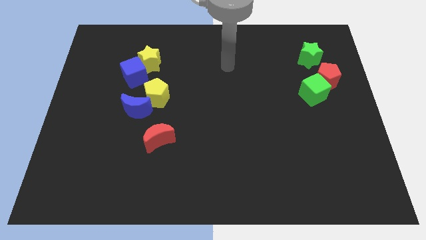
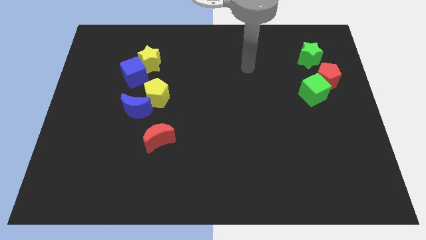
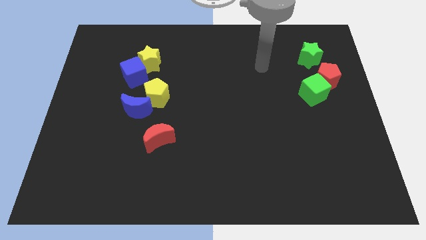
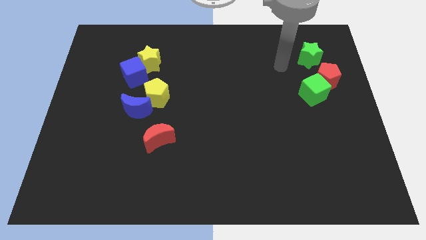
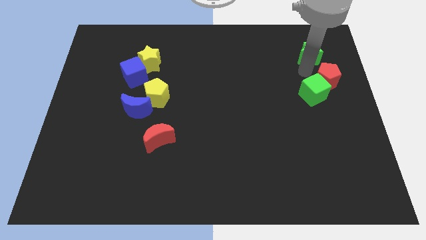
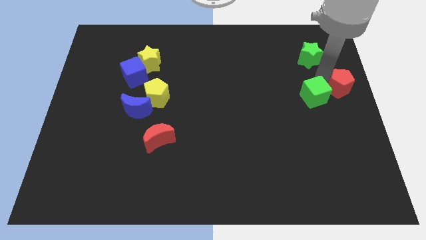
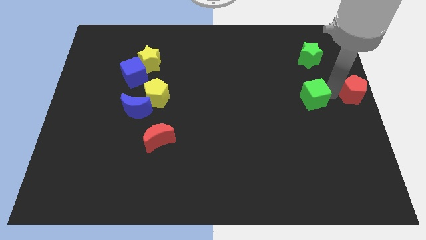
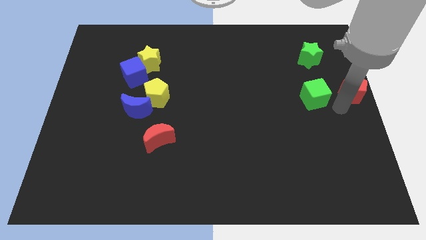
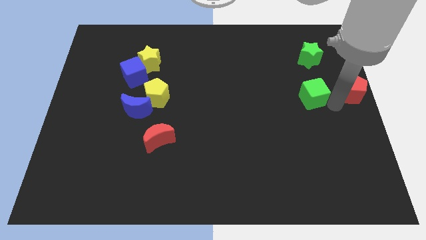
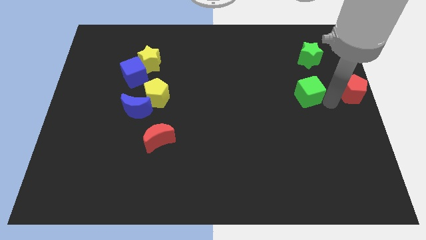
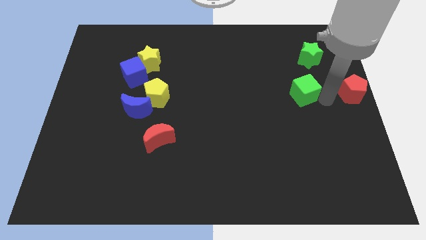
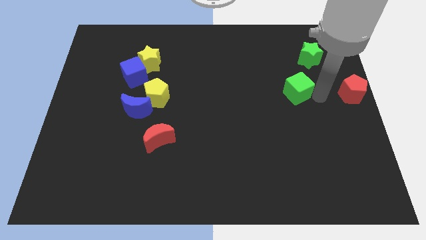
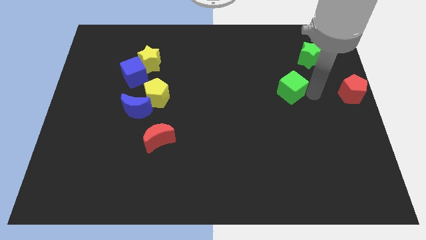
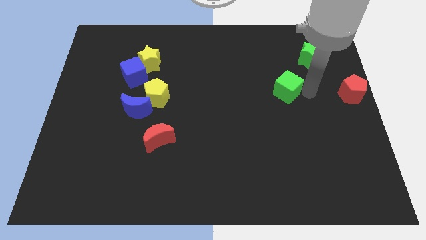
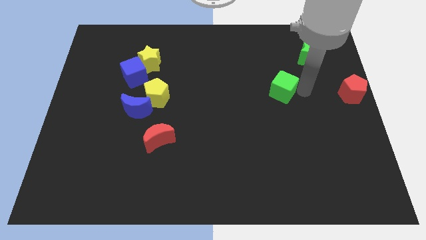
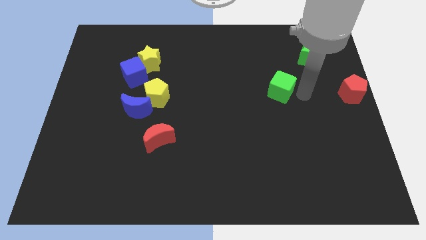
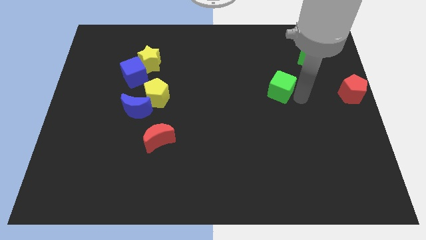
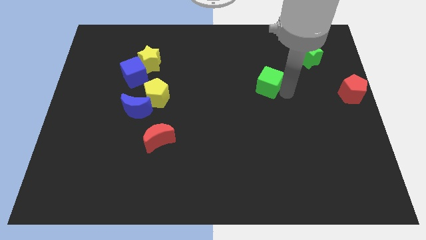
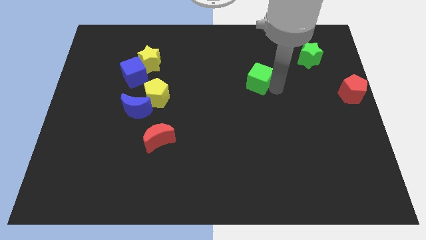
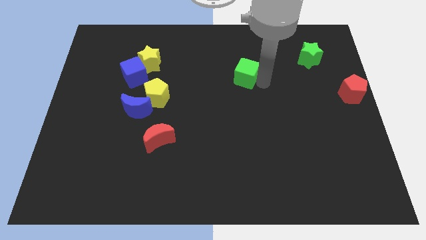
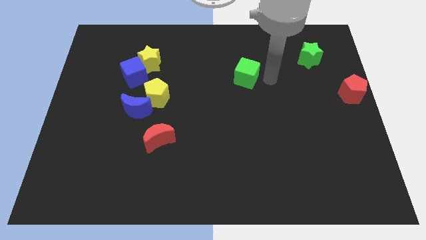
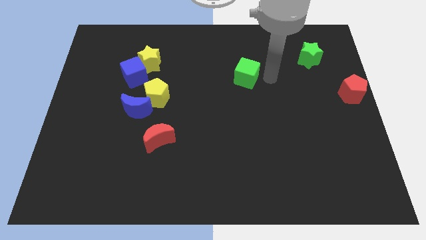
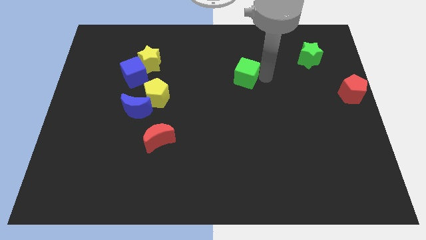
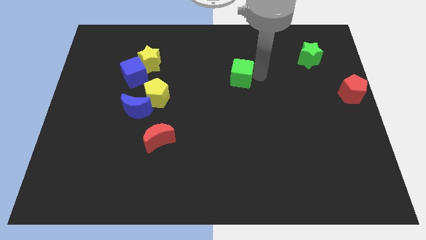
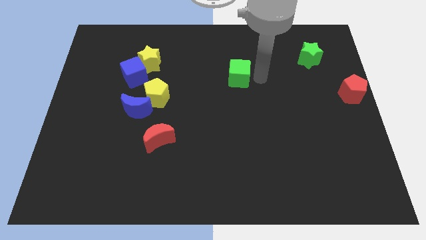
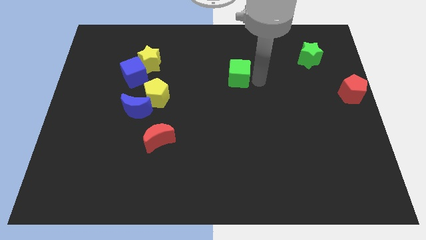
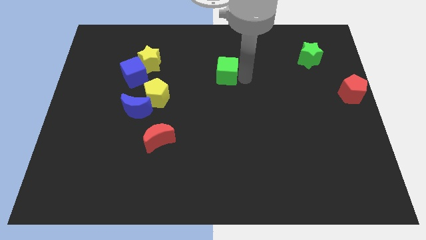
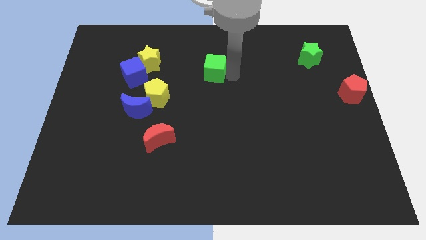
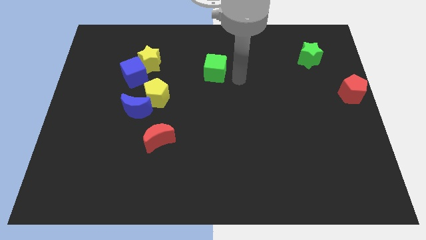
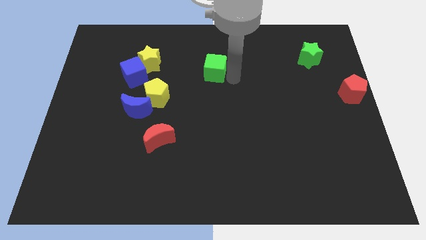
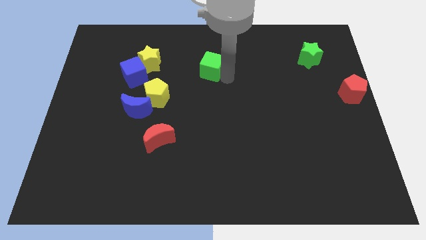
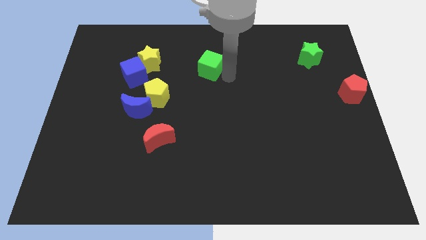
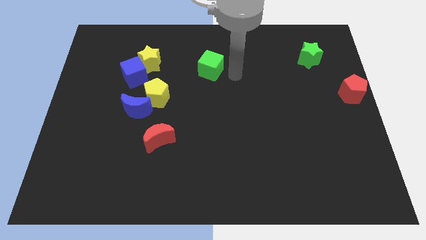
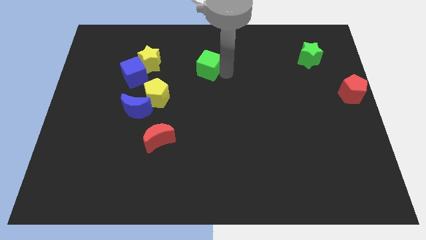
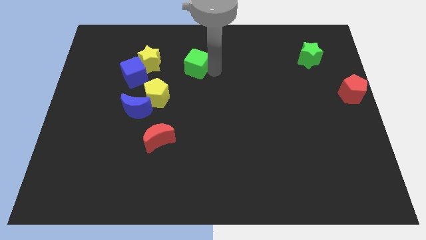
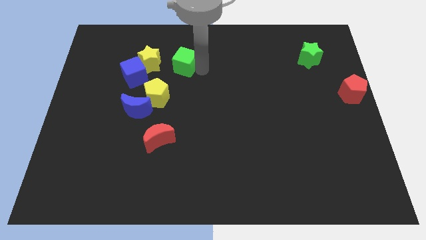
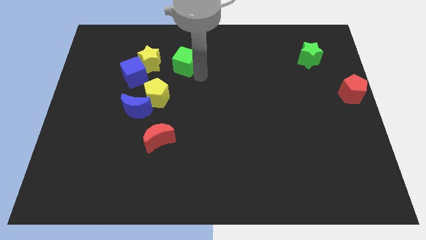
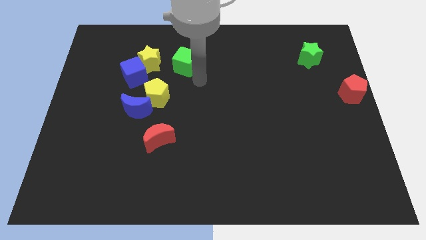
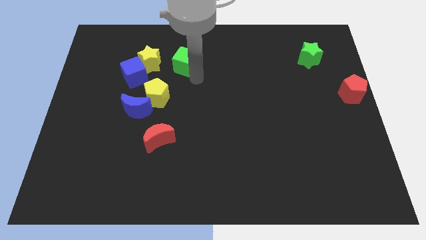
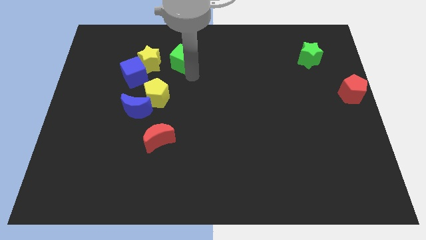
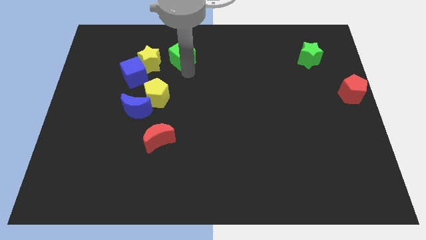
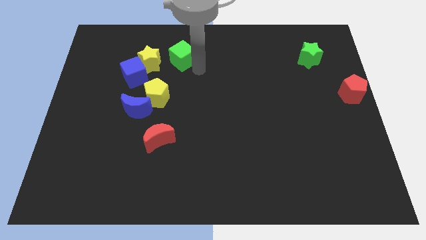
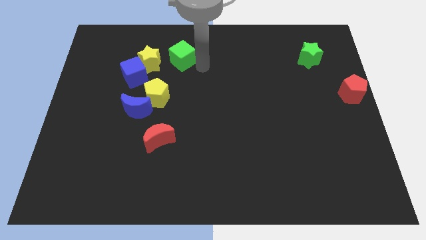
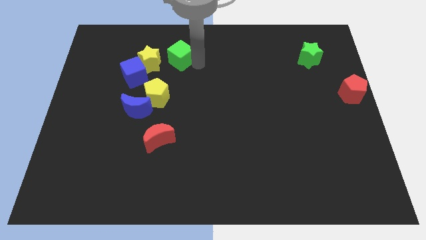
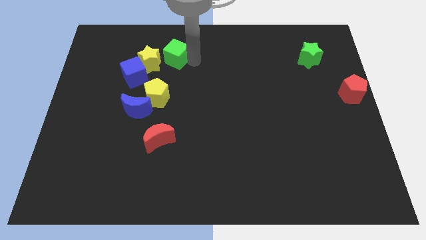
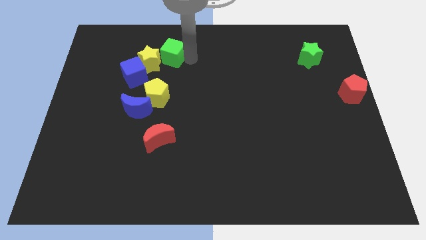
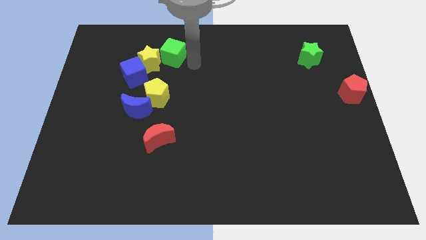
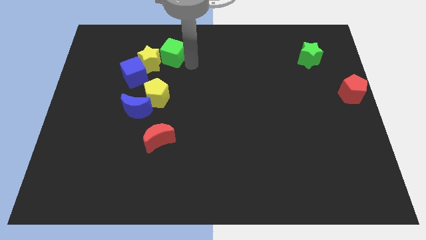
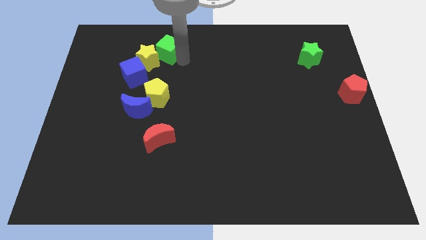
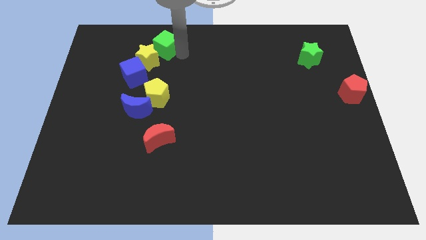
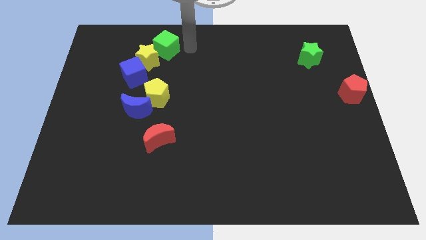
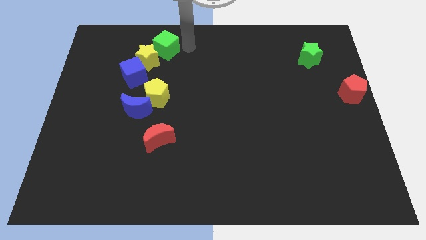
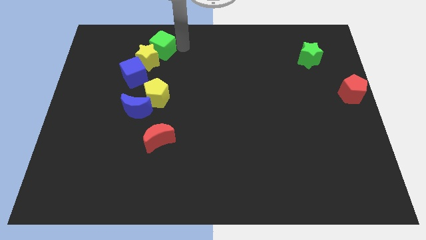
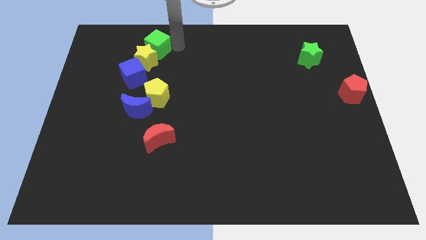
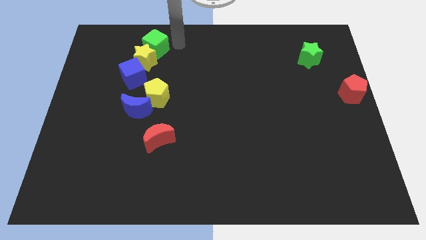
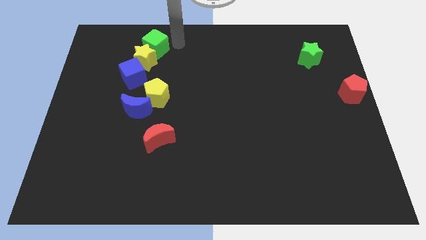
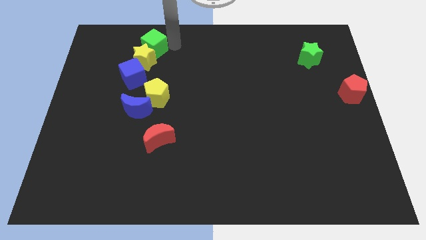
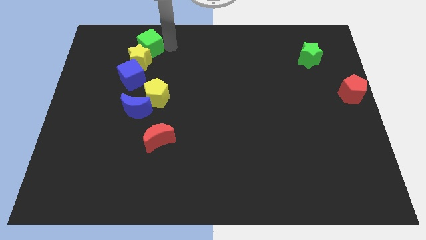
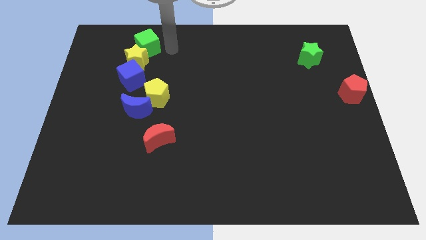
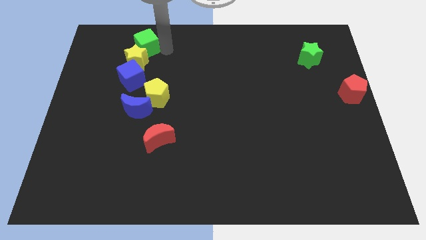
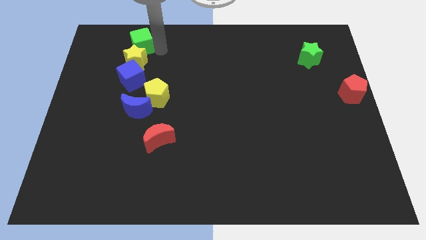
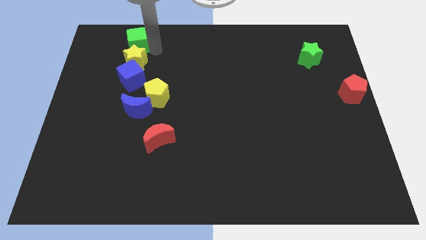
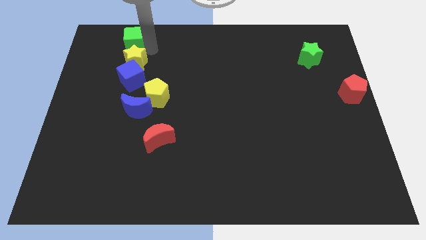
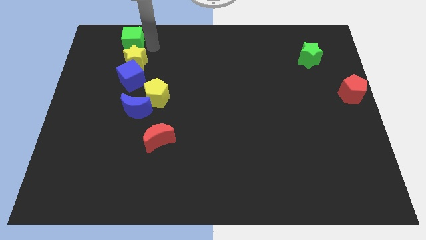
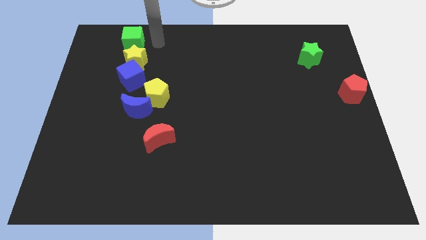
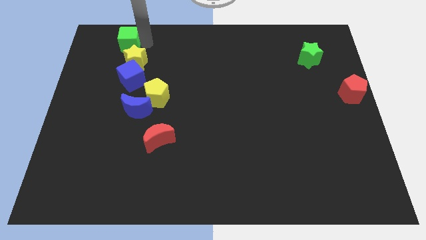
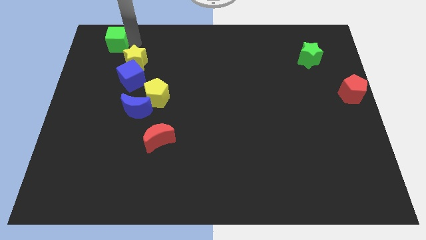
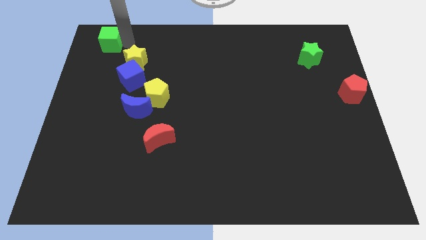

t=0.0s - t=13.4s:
slide the green cube to the upper left corner
